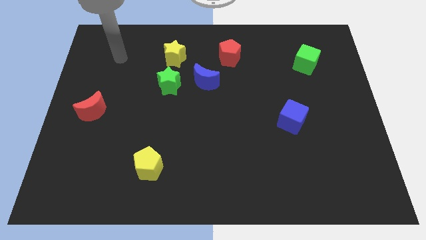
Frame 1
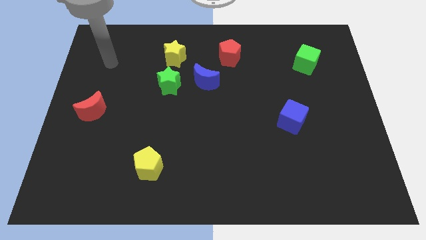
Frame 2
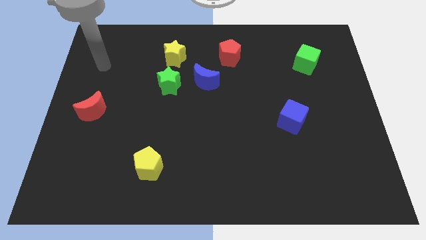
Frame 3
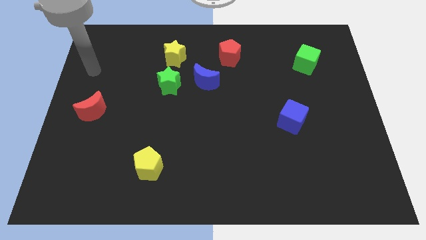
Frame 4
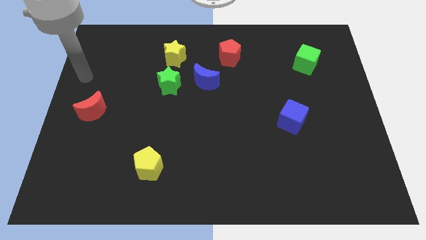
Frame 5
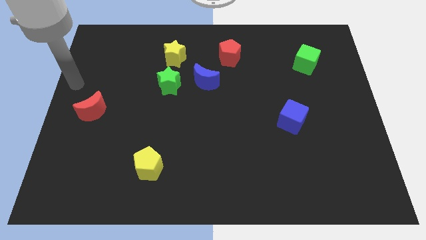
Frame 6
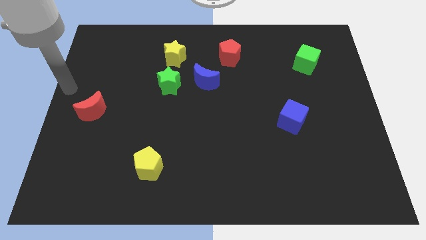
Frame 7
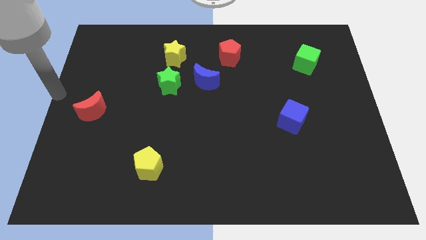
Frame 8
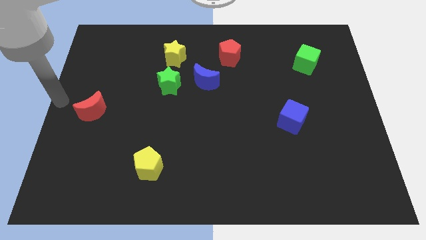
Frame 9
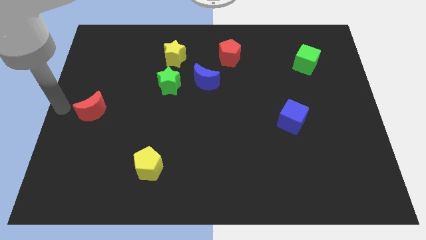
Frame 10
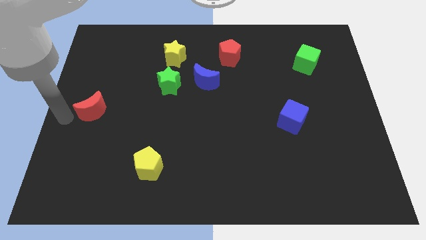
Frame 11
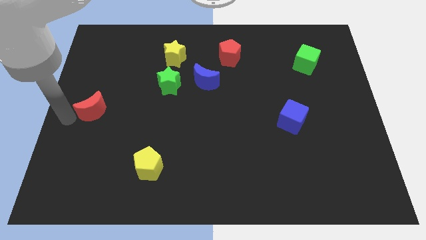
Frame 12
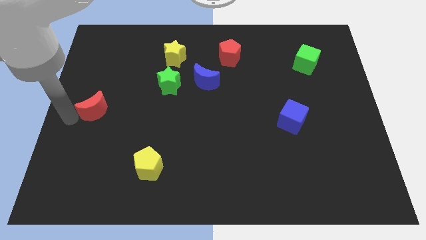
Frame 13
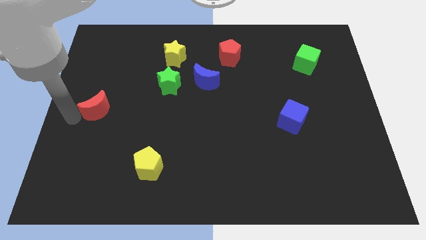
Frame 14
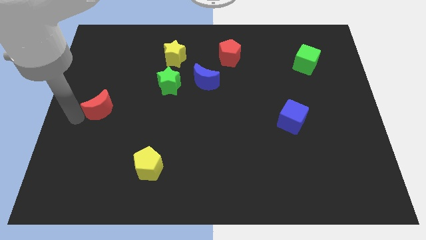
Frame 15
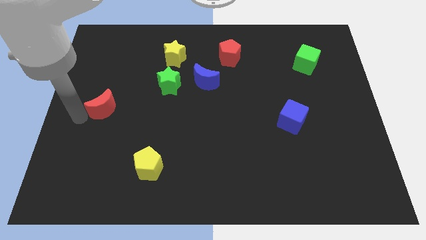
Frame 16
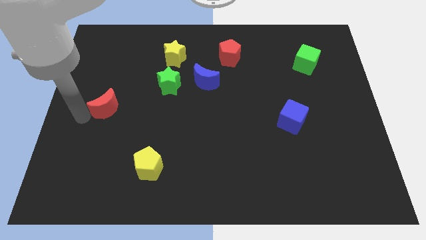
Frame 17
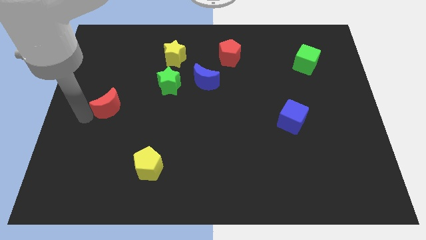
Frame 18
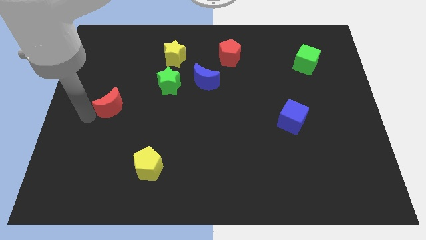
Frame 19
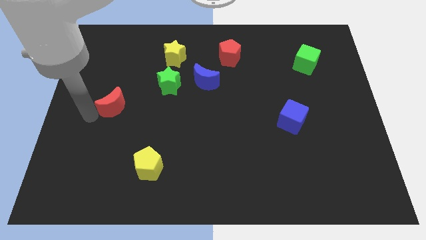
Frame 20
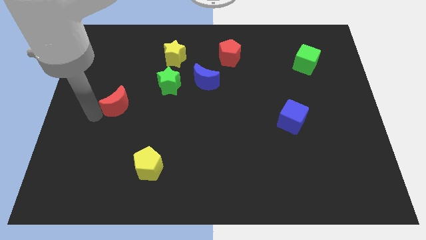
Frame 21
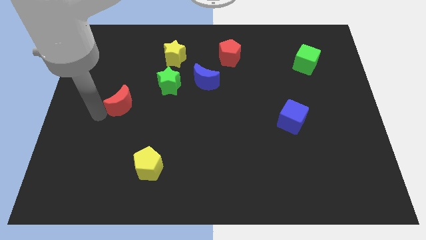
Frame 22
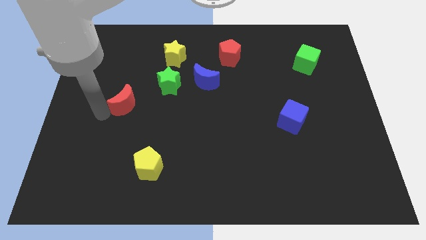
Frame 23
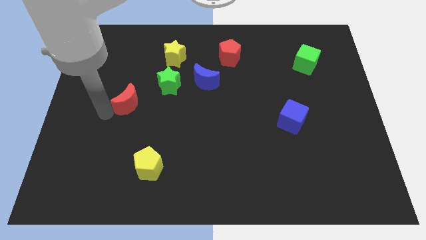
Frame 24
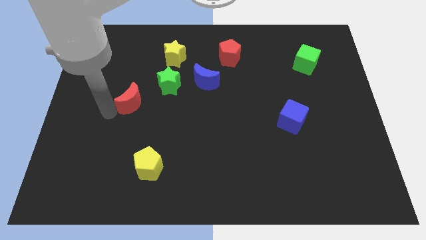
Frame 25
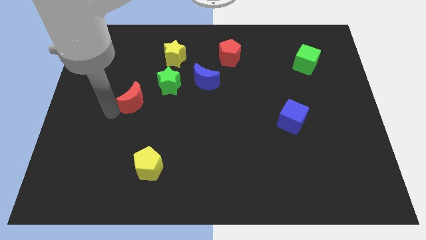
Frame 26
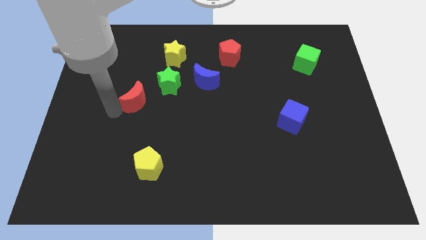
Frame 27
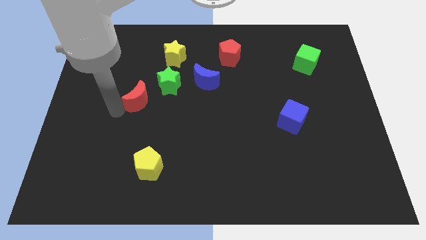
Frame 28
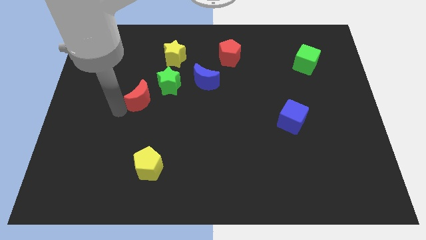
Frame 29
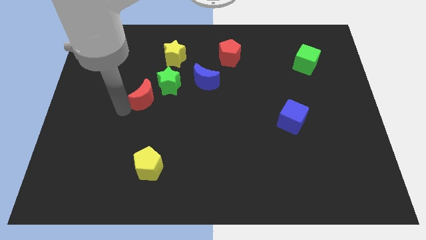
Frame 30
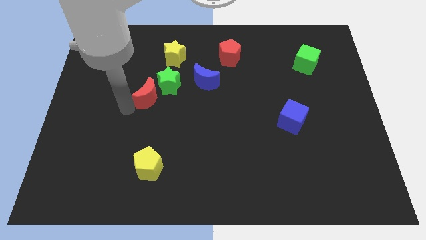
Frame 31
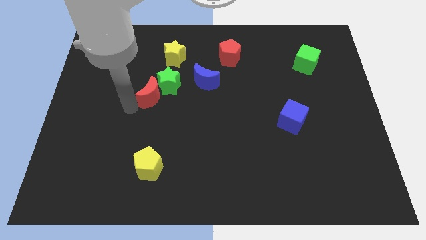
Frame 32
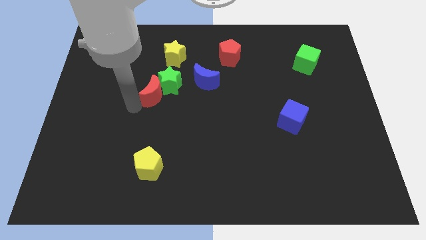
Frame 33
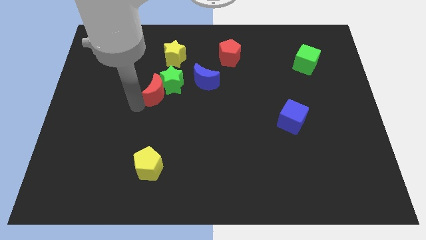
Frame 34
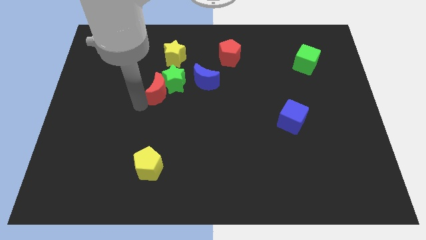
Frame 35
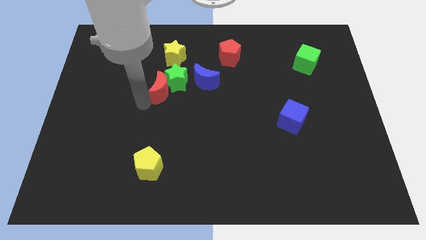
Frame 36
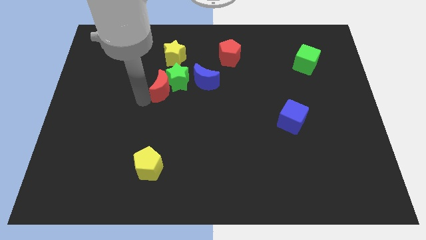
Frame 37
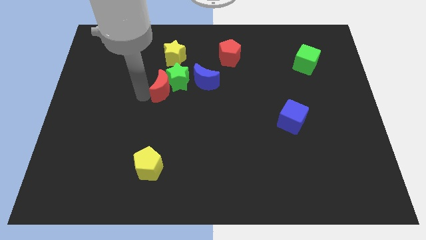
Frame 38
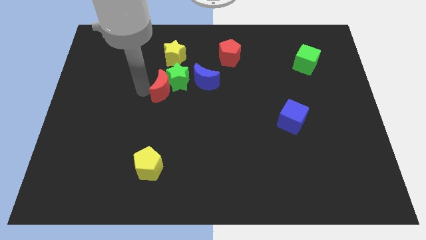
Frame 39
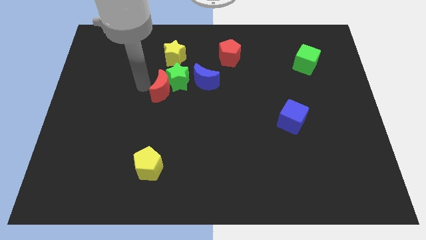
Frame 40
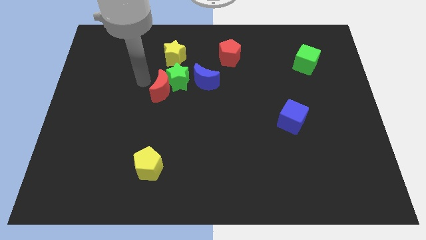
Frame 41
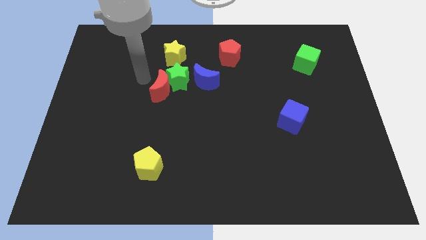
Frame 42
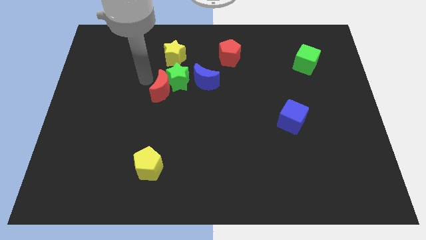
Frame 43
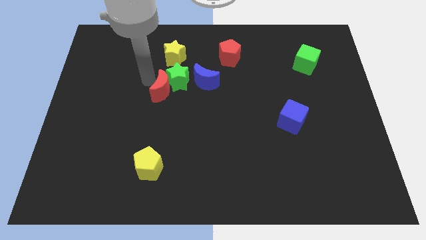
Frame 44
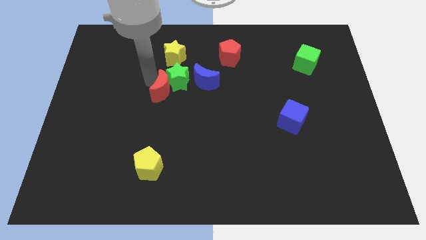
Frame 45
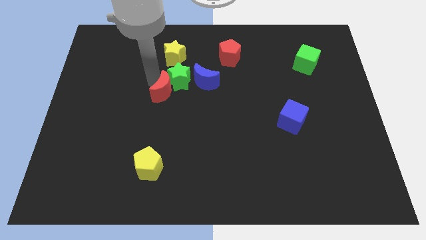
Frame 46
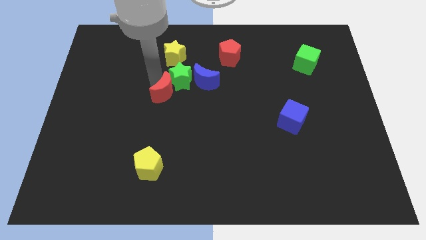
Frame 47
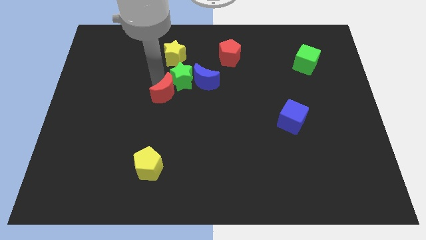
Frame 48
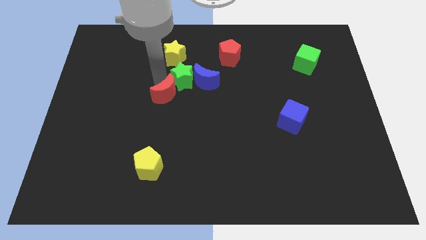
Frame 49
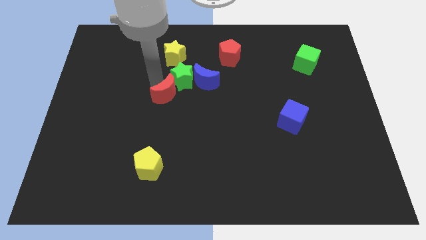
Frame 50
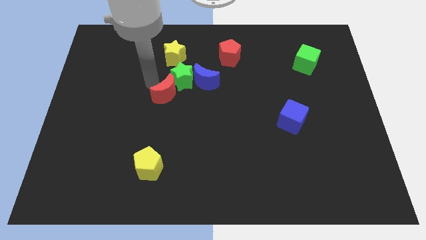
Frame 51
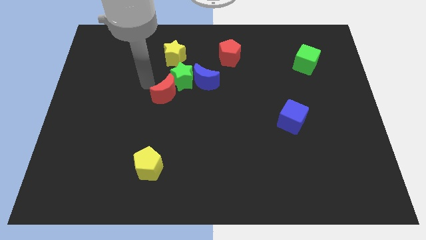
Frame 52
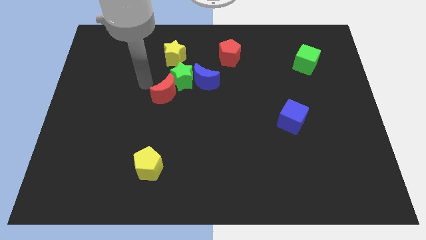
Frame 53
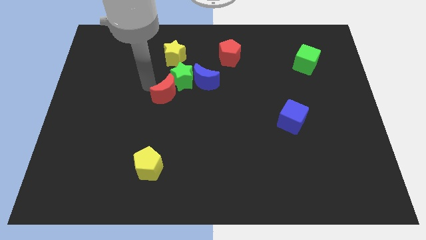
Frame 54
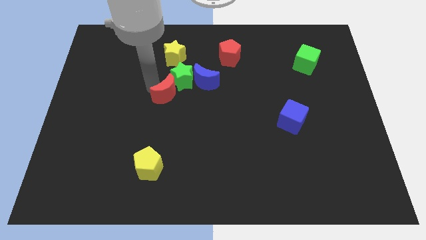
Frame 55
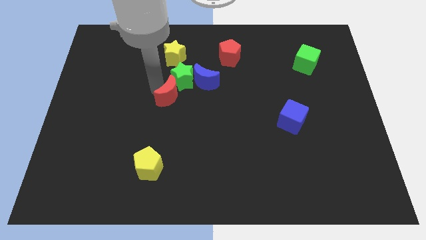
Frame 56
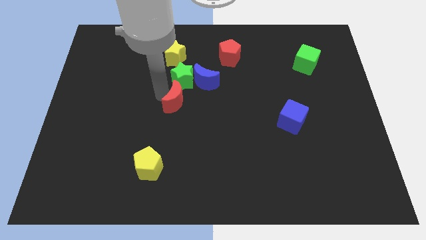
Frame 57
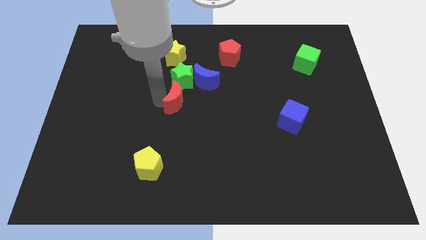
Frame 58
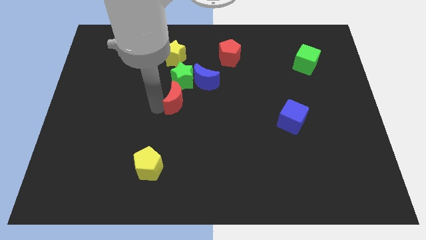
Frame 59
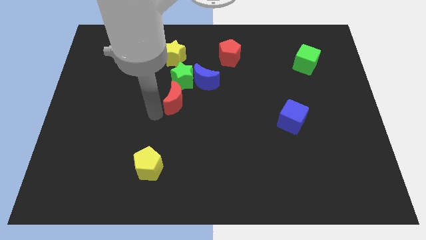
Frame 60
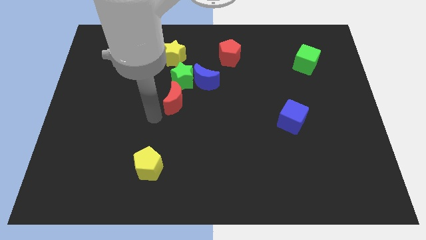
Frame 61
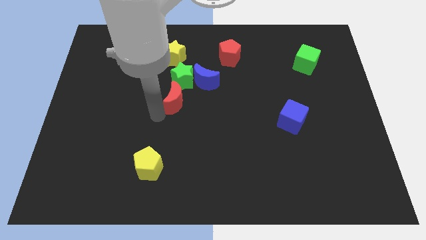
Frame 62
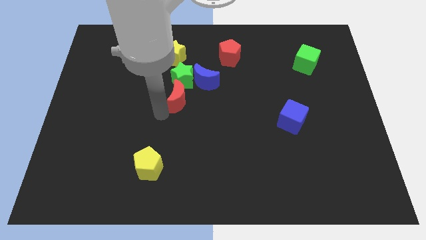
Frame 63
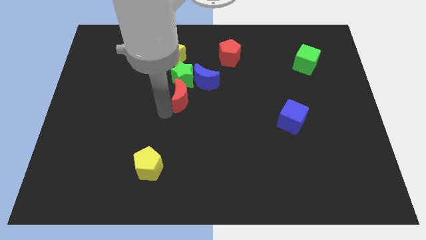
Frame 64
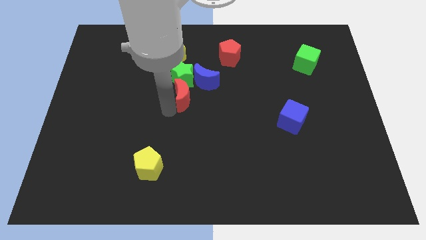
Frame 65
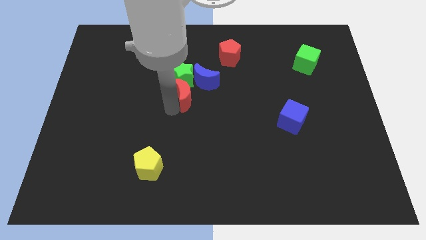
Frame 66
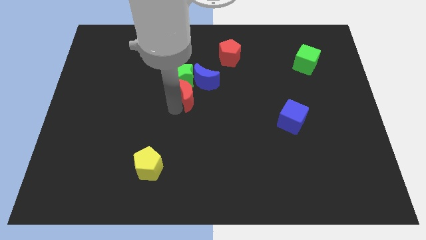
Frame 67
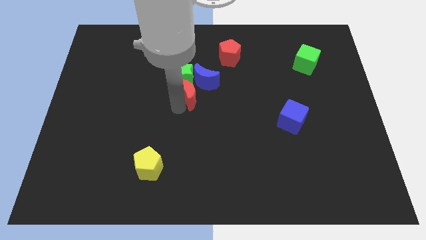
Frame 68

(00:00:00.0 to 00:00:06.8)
put the red moon close to the blue moon

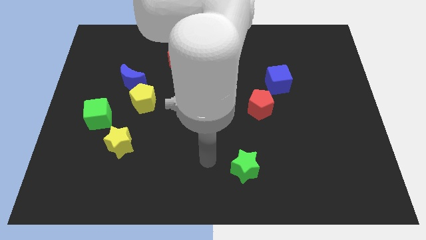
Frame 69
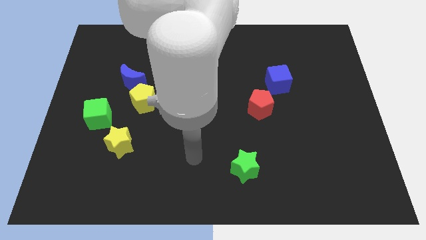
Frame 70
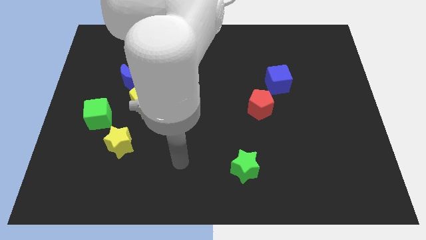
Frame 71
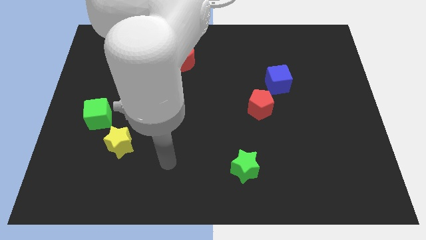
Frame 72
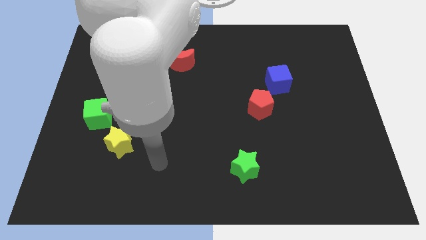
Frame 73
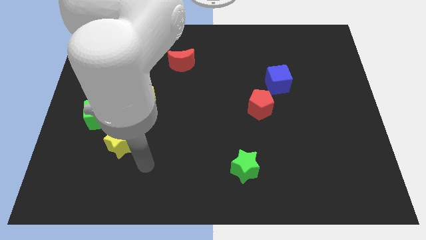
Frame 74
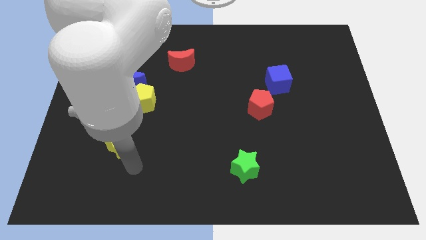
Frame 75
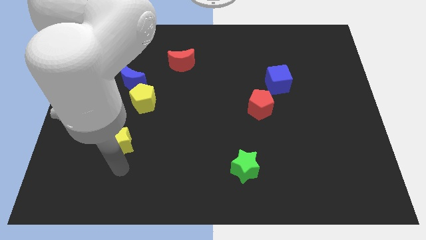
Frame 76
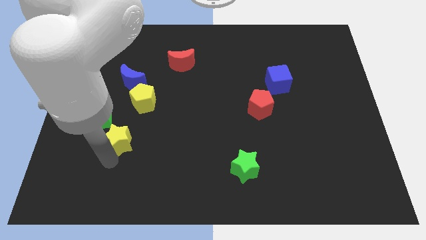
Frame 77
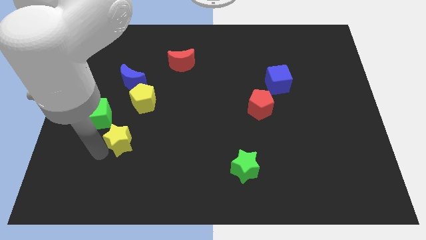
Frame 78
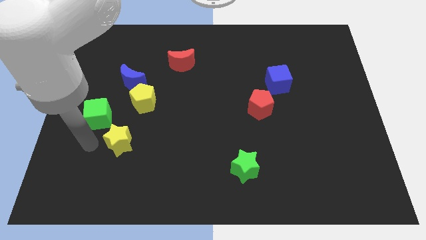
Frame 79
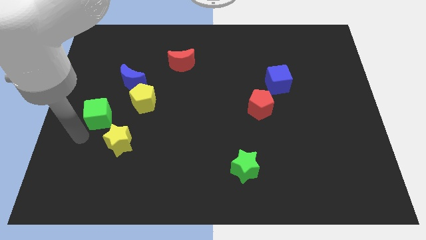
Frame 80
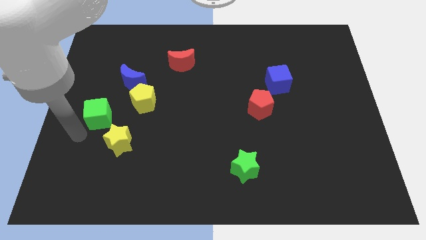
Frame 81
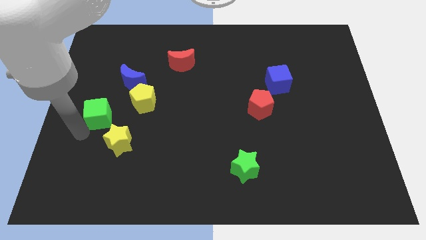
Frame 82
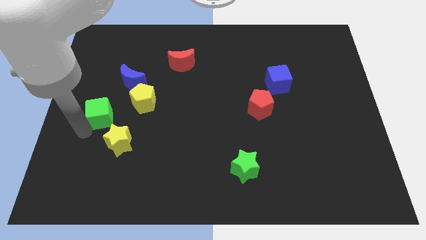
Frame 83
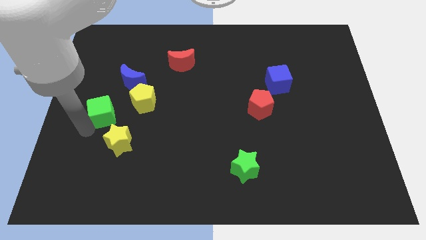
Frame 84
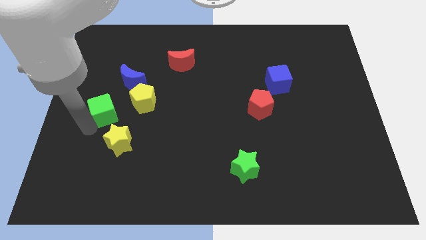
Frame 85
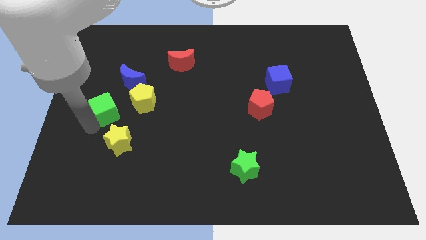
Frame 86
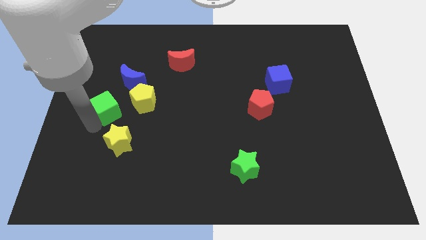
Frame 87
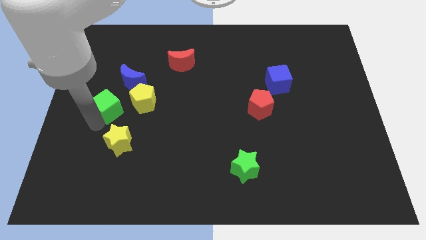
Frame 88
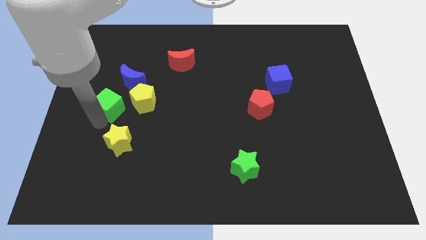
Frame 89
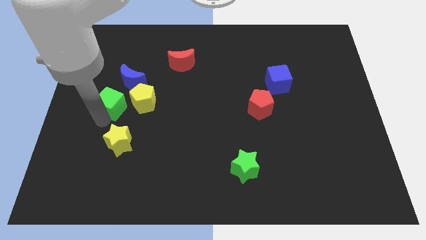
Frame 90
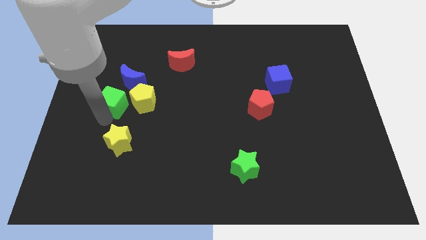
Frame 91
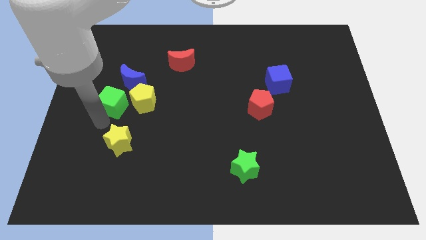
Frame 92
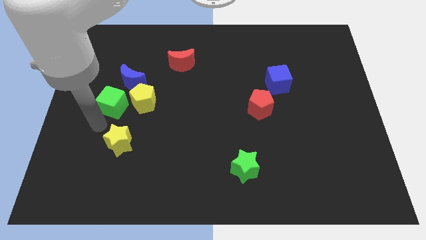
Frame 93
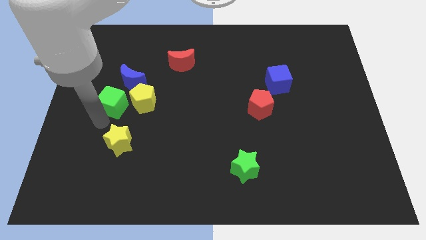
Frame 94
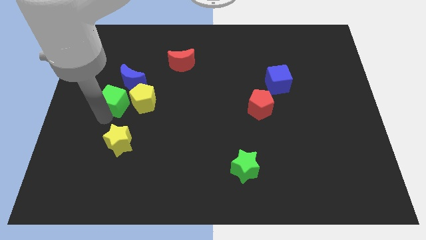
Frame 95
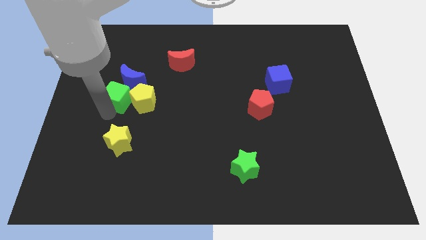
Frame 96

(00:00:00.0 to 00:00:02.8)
push the green cube towards the blue moon
